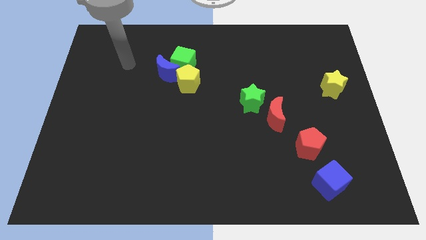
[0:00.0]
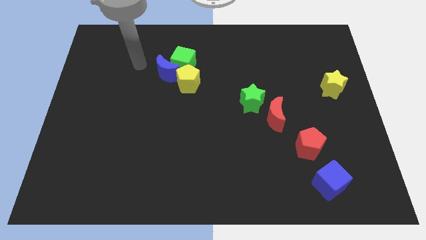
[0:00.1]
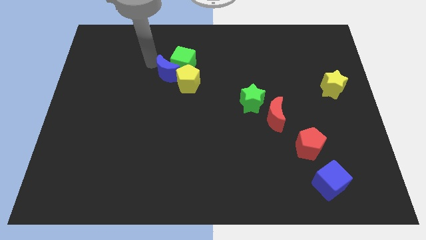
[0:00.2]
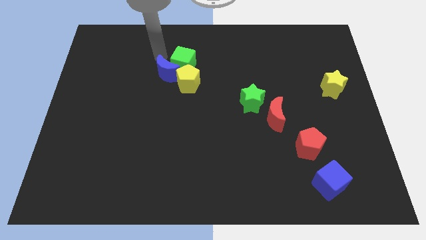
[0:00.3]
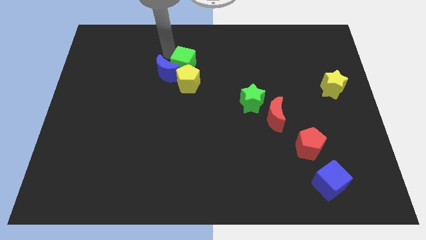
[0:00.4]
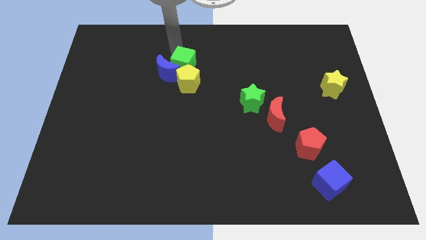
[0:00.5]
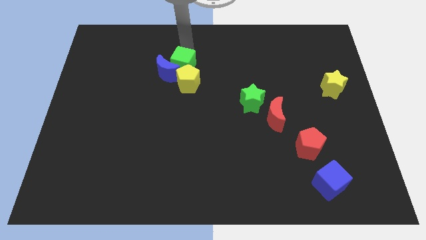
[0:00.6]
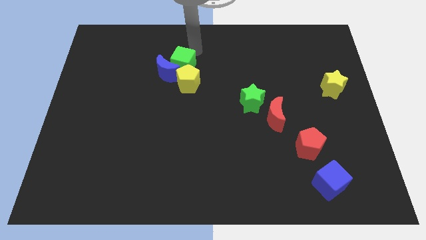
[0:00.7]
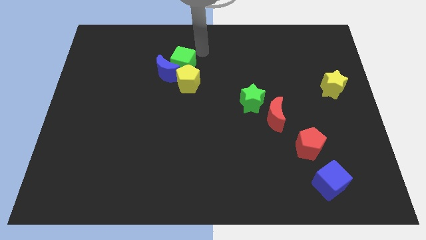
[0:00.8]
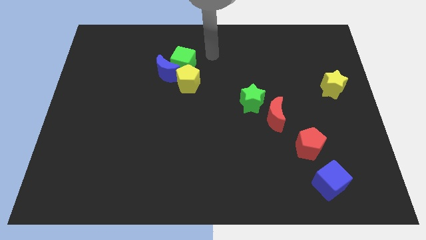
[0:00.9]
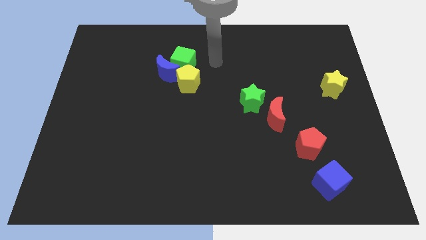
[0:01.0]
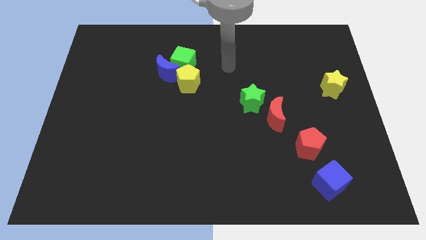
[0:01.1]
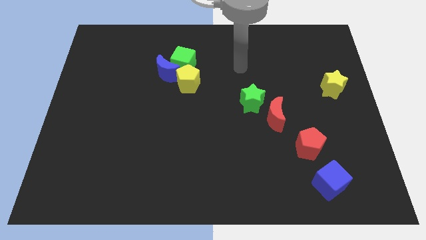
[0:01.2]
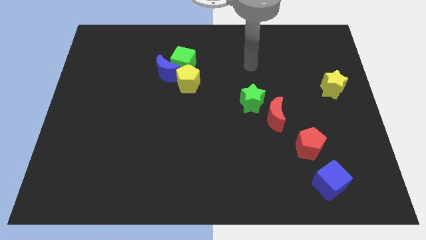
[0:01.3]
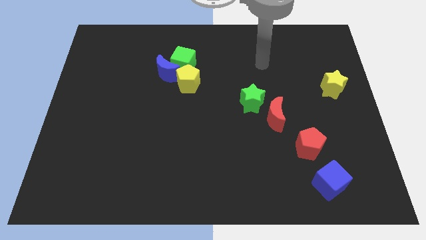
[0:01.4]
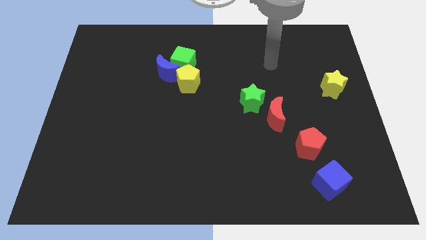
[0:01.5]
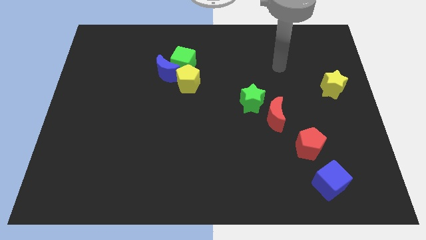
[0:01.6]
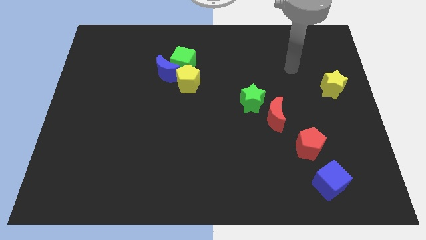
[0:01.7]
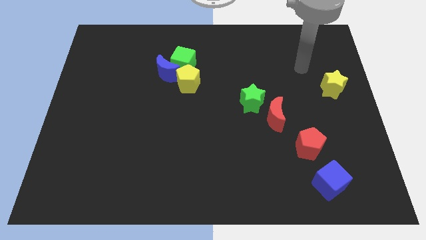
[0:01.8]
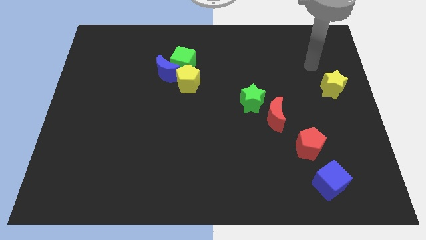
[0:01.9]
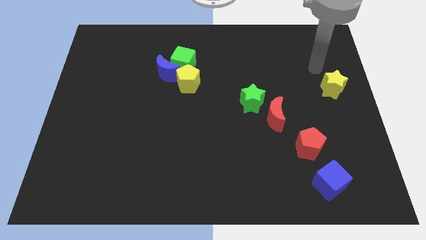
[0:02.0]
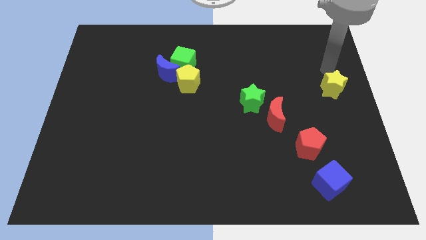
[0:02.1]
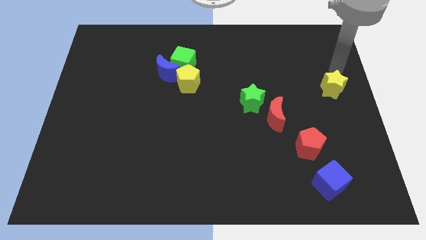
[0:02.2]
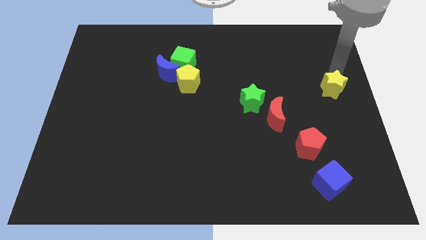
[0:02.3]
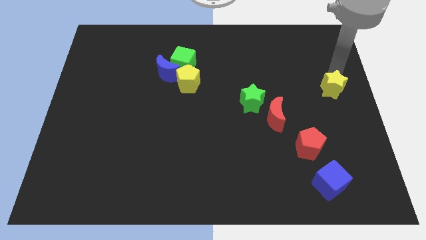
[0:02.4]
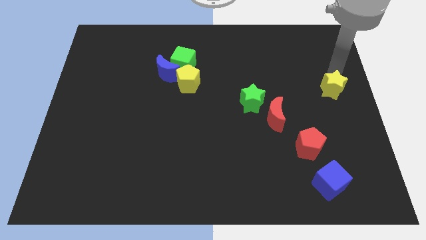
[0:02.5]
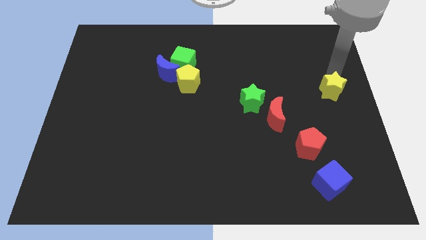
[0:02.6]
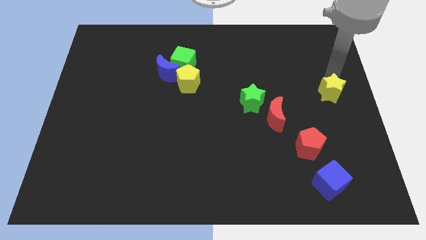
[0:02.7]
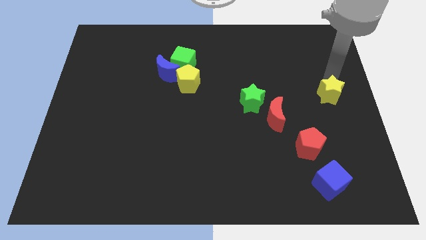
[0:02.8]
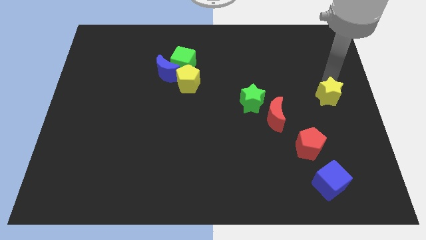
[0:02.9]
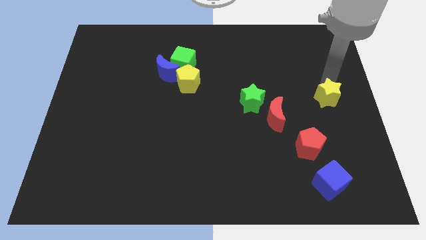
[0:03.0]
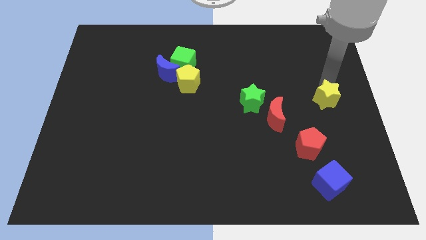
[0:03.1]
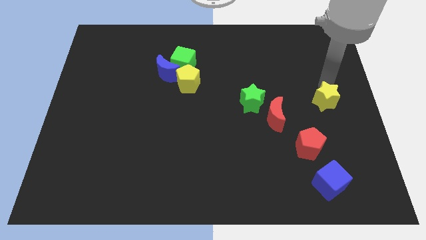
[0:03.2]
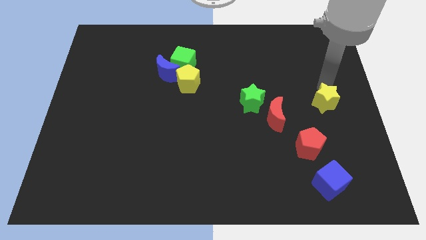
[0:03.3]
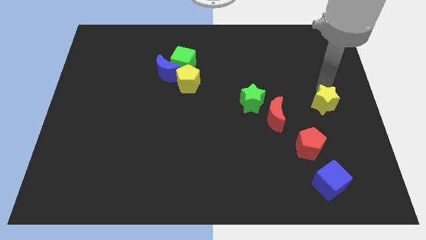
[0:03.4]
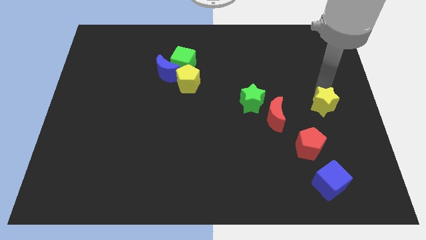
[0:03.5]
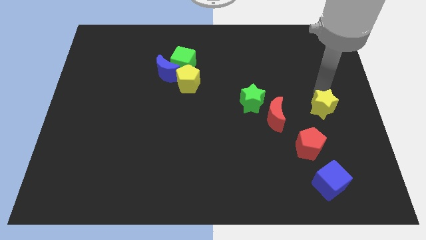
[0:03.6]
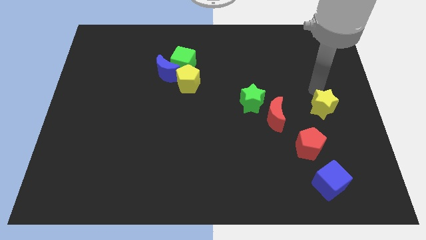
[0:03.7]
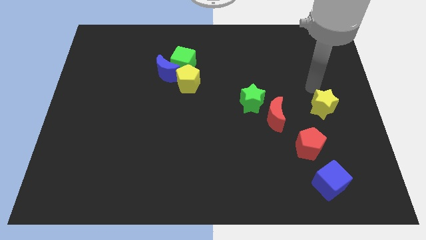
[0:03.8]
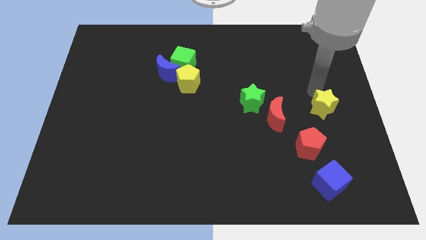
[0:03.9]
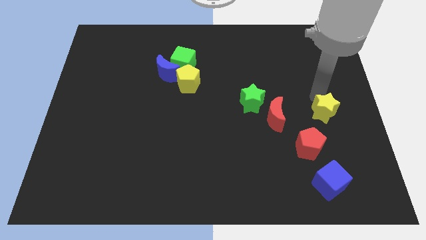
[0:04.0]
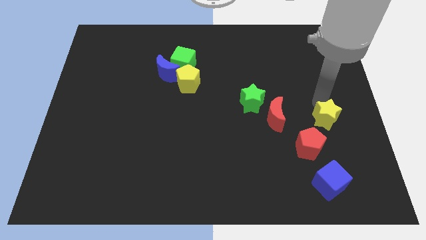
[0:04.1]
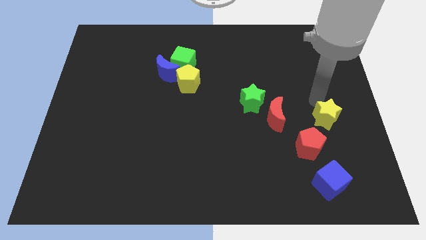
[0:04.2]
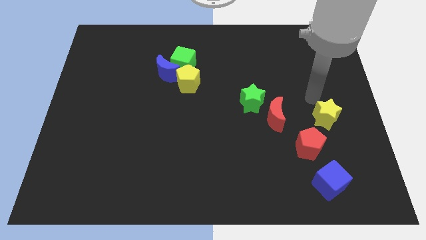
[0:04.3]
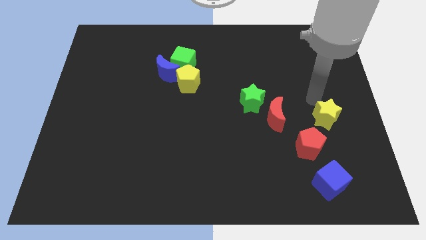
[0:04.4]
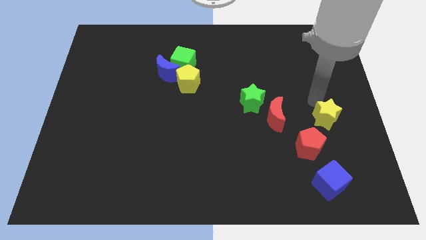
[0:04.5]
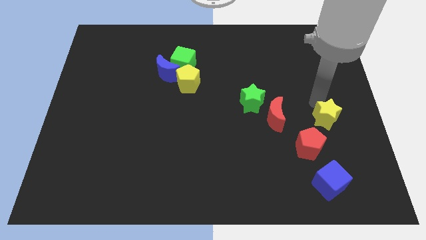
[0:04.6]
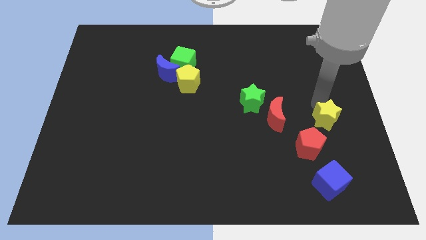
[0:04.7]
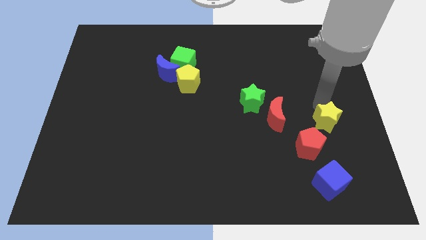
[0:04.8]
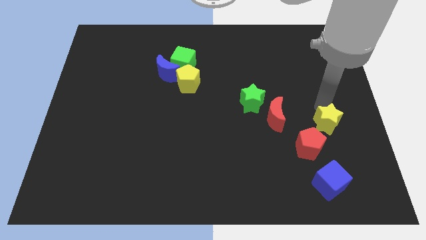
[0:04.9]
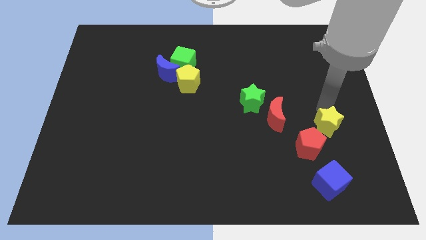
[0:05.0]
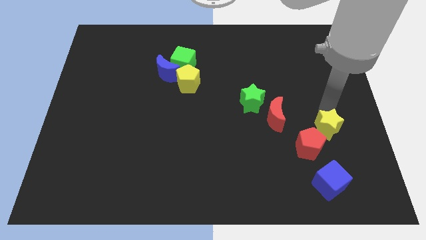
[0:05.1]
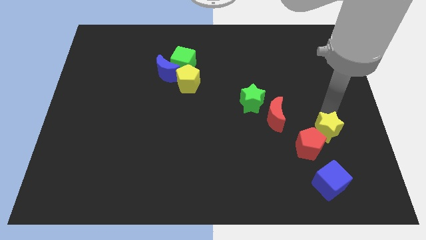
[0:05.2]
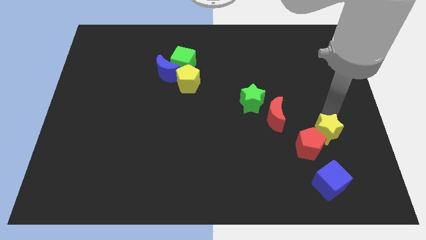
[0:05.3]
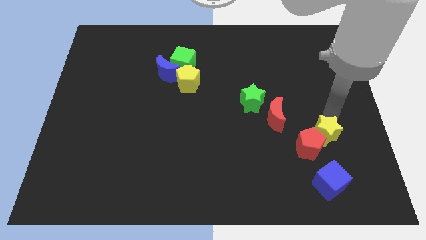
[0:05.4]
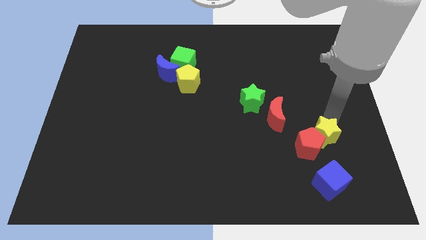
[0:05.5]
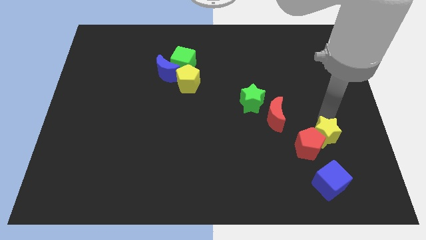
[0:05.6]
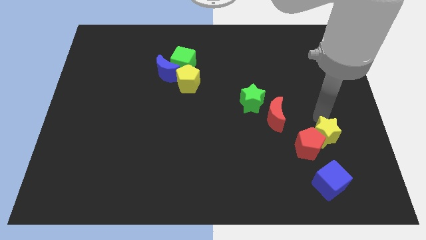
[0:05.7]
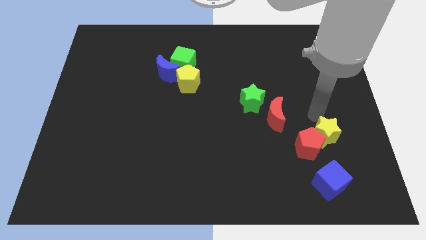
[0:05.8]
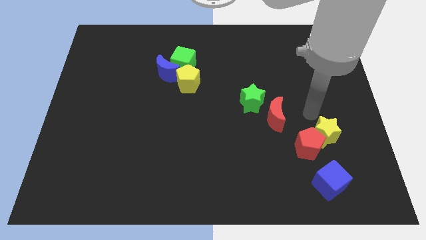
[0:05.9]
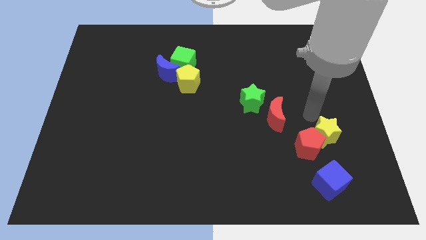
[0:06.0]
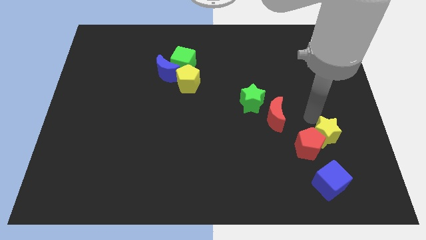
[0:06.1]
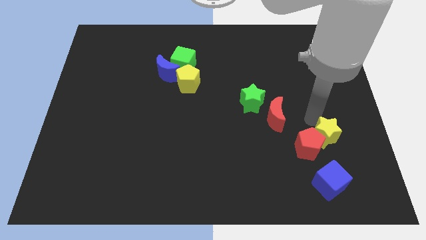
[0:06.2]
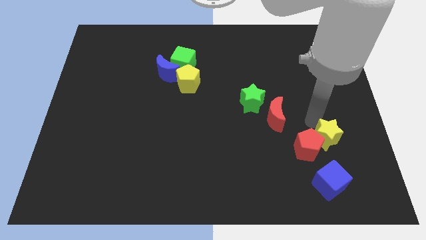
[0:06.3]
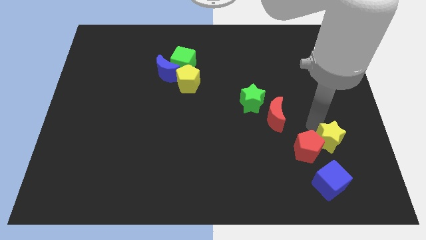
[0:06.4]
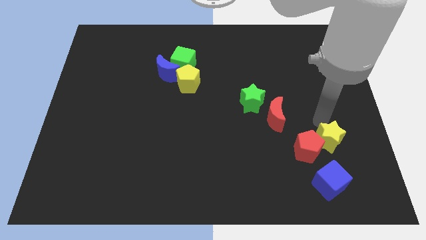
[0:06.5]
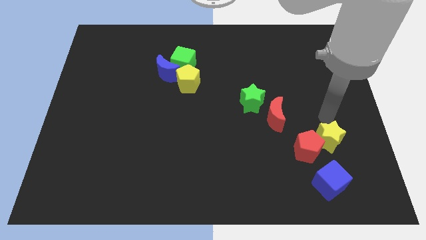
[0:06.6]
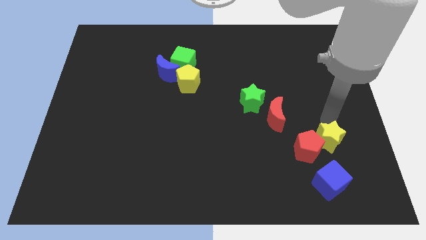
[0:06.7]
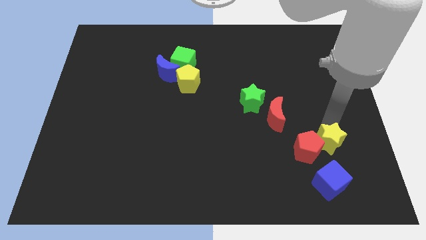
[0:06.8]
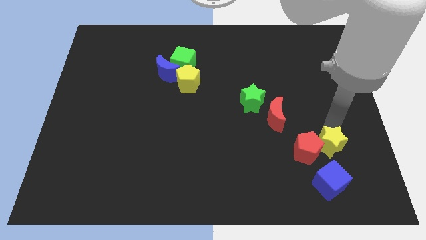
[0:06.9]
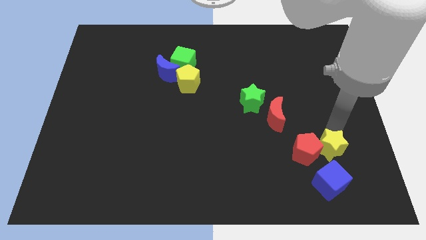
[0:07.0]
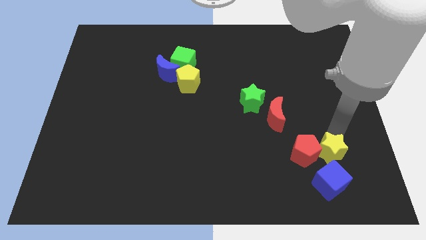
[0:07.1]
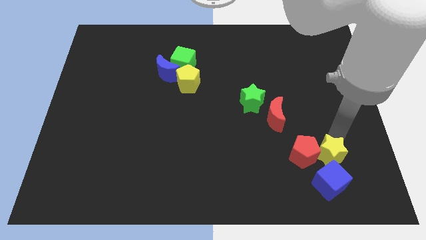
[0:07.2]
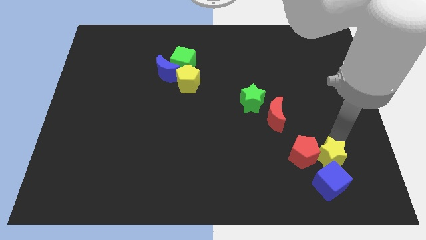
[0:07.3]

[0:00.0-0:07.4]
slide the yellow star next to the blue cube

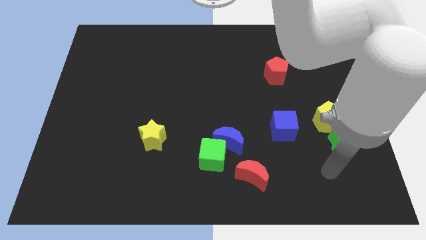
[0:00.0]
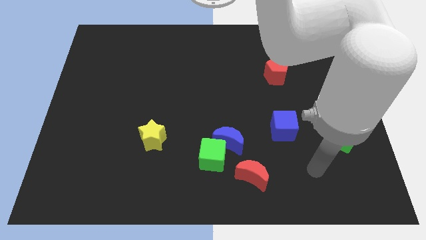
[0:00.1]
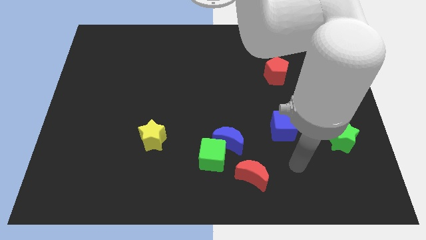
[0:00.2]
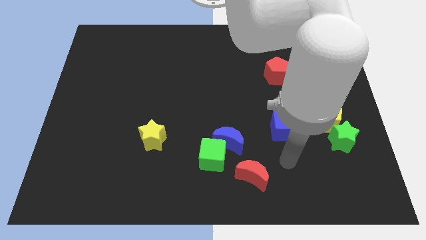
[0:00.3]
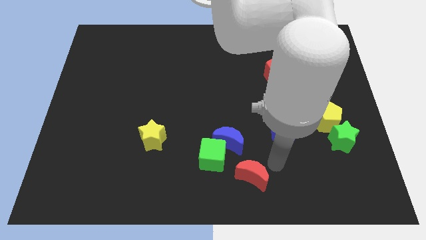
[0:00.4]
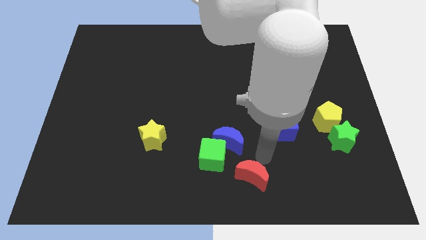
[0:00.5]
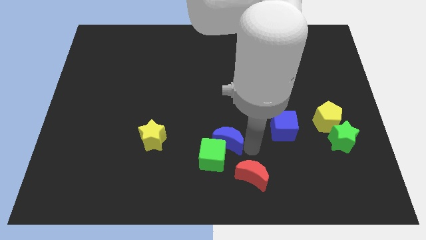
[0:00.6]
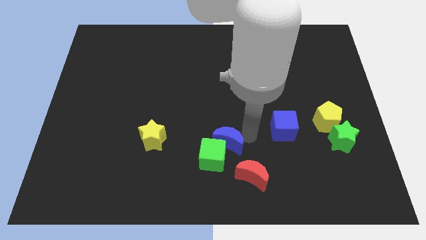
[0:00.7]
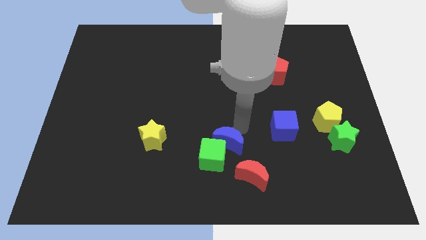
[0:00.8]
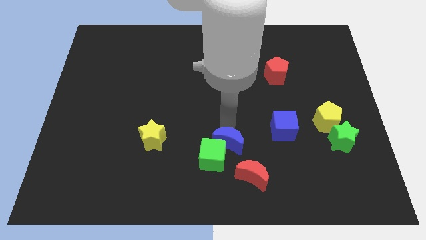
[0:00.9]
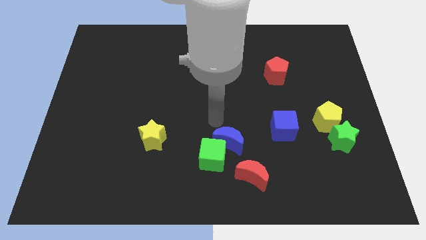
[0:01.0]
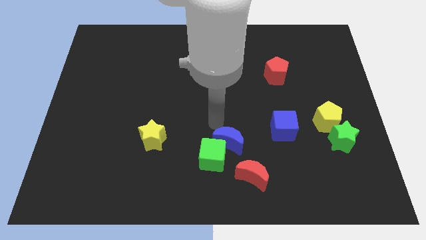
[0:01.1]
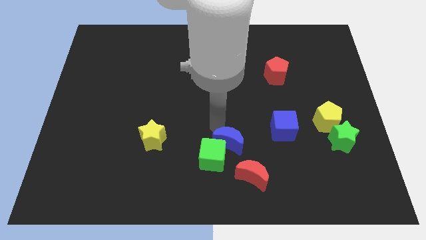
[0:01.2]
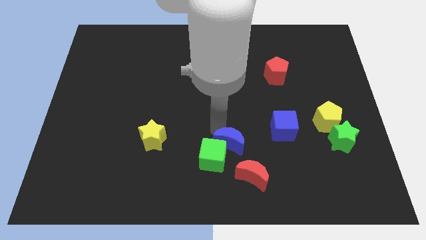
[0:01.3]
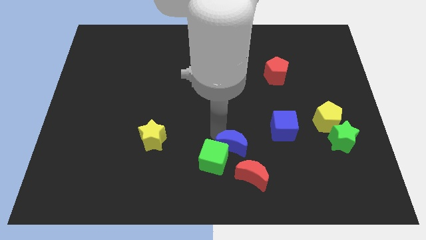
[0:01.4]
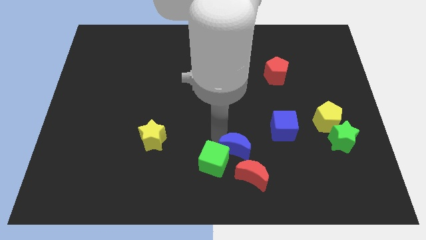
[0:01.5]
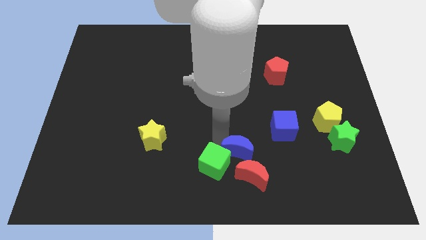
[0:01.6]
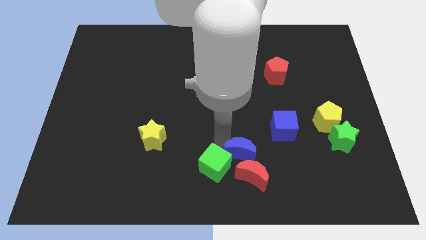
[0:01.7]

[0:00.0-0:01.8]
put the blue moon towards the red moon
